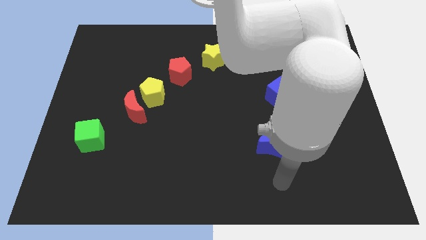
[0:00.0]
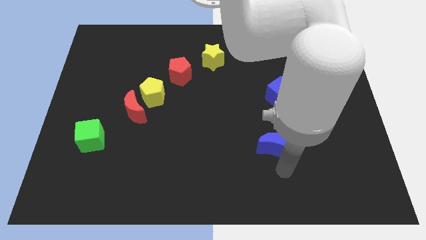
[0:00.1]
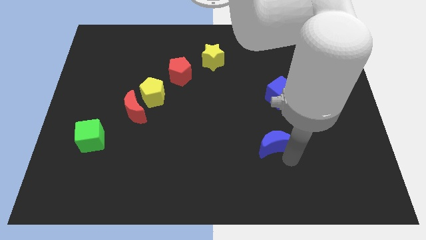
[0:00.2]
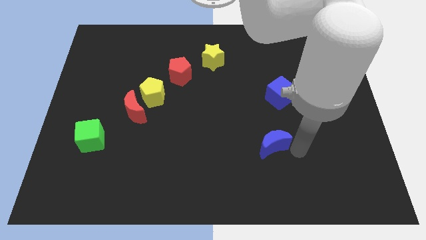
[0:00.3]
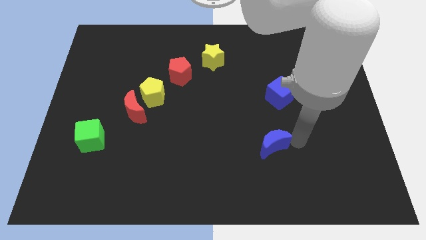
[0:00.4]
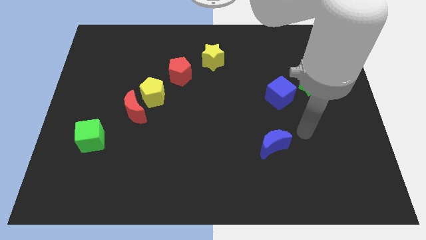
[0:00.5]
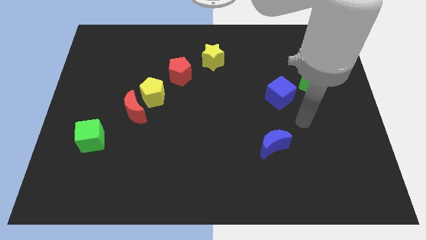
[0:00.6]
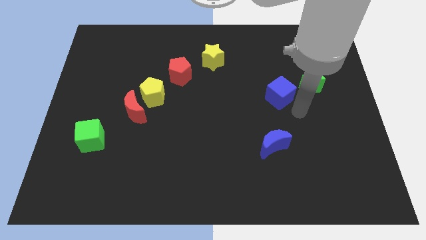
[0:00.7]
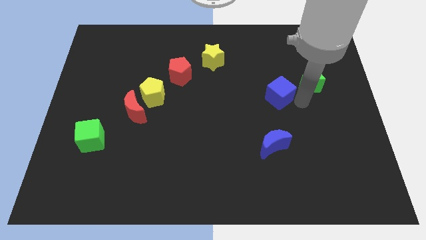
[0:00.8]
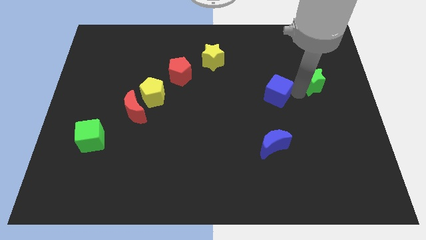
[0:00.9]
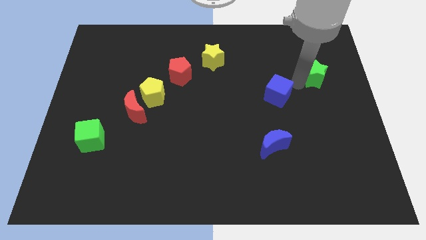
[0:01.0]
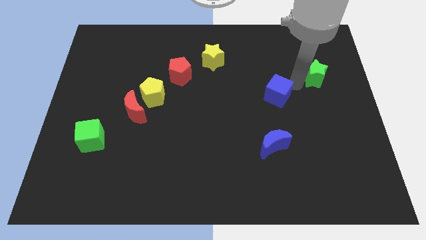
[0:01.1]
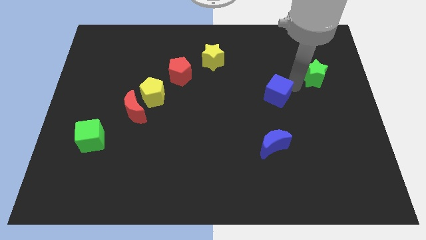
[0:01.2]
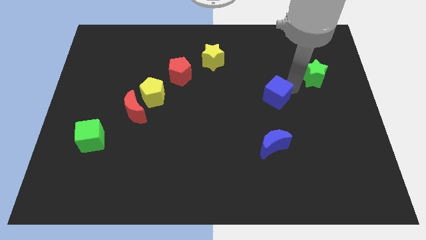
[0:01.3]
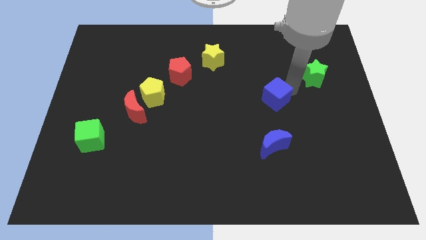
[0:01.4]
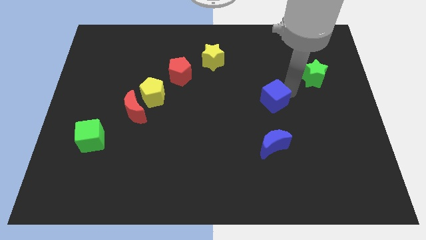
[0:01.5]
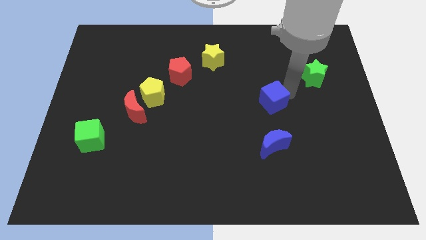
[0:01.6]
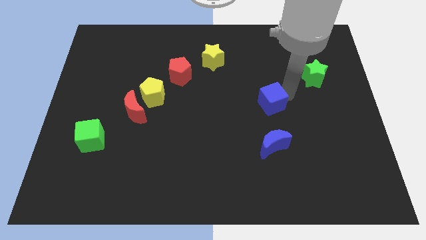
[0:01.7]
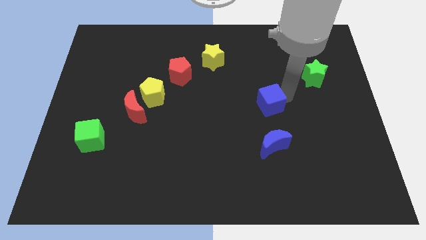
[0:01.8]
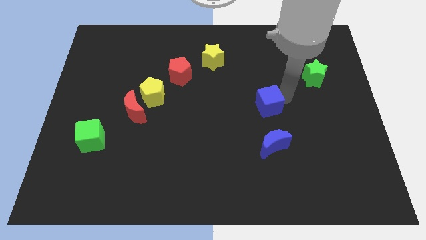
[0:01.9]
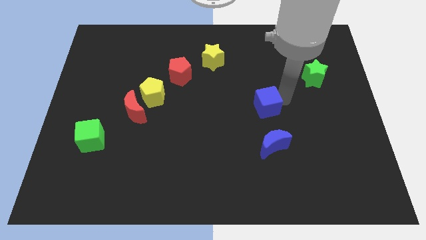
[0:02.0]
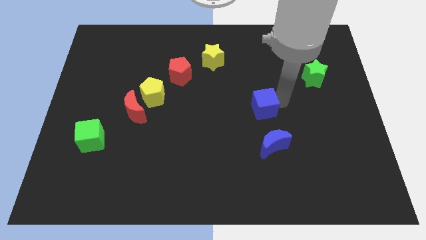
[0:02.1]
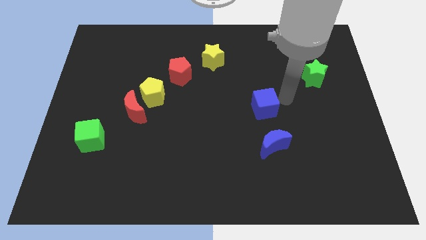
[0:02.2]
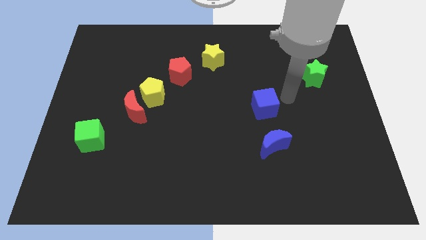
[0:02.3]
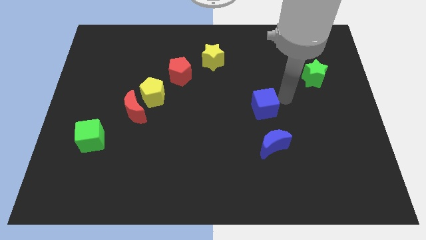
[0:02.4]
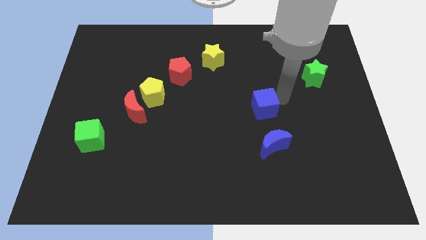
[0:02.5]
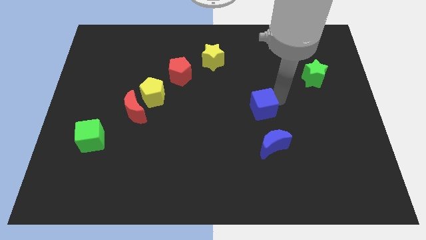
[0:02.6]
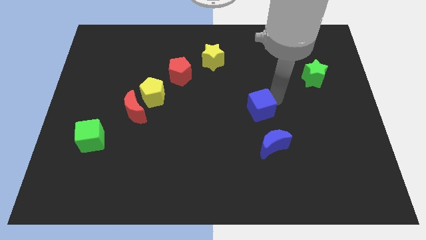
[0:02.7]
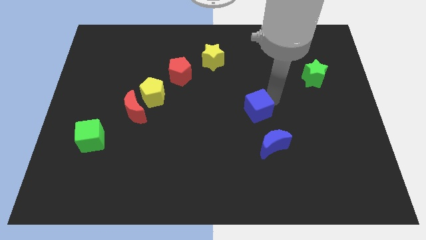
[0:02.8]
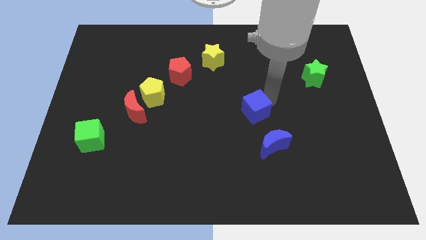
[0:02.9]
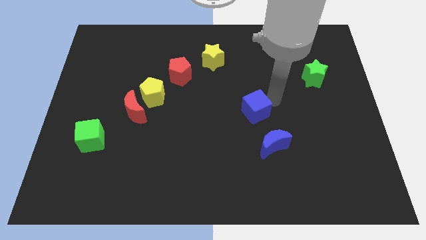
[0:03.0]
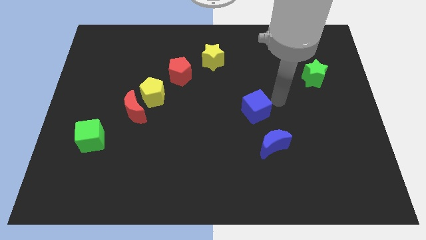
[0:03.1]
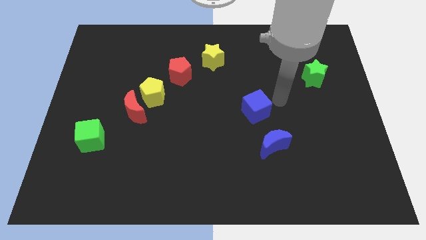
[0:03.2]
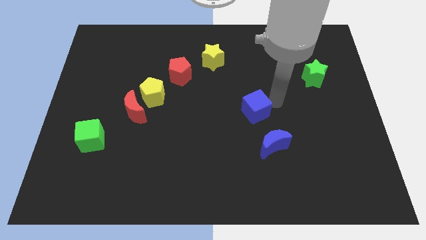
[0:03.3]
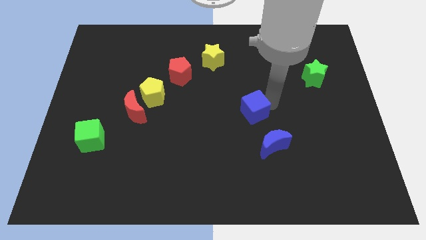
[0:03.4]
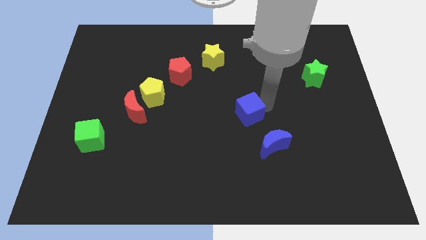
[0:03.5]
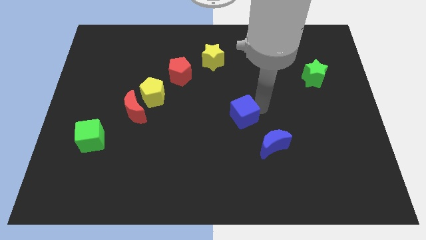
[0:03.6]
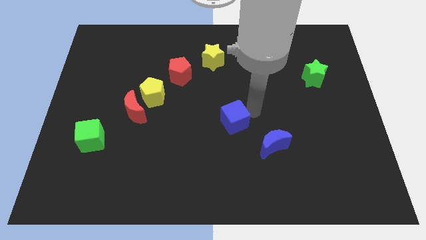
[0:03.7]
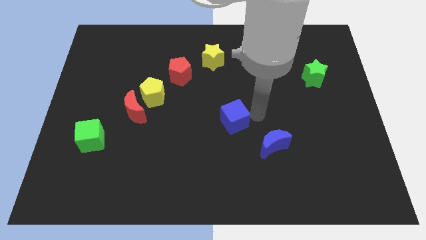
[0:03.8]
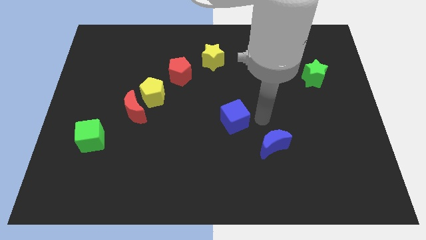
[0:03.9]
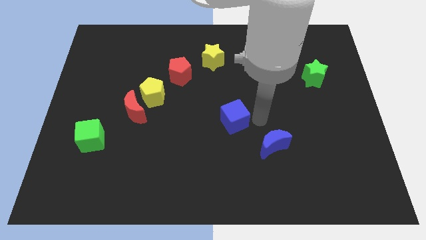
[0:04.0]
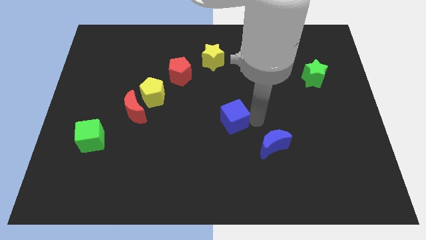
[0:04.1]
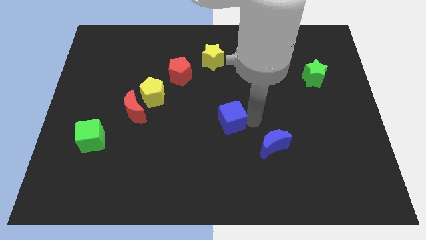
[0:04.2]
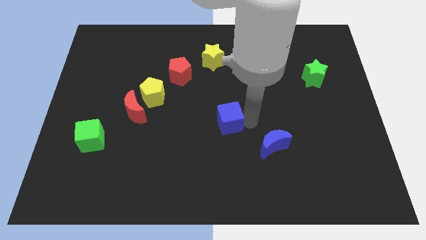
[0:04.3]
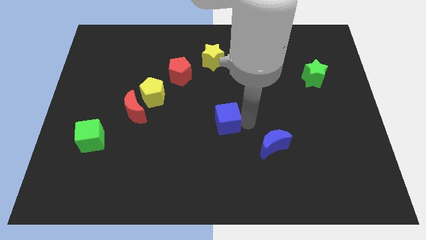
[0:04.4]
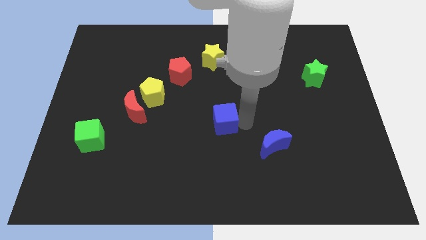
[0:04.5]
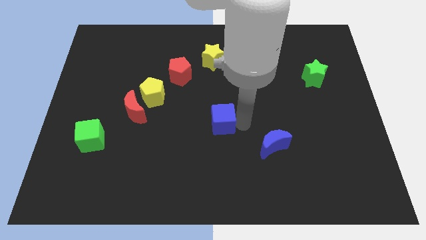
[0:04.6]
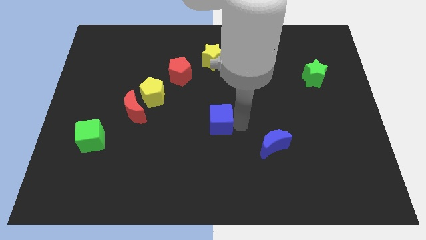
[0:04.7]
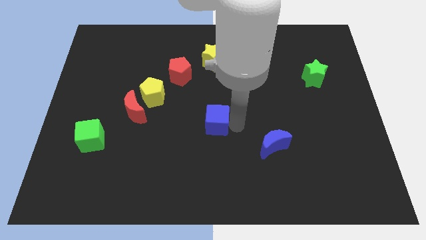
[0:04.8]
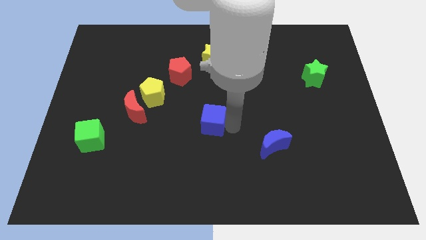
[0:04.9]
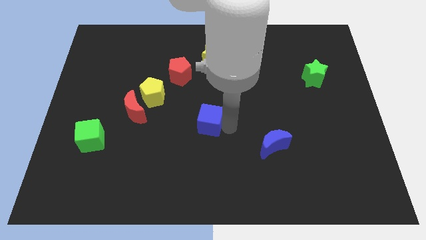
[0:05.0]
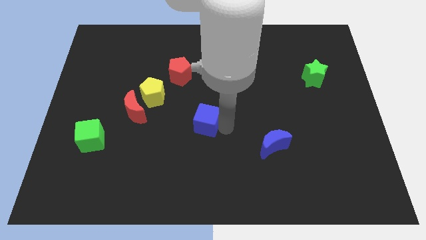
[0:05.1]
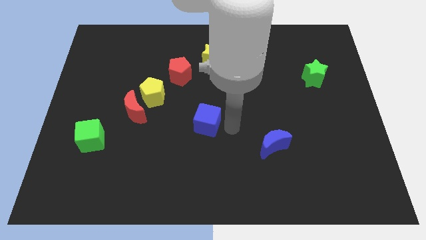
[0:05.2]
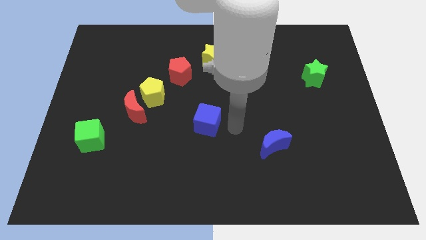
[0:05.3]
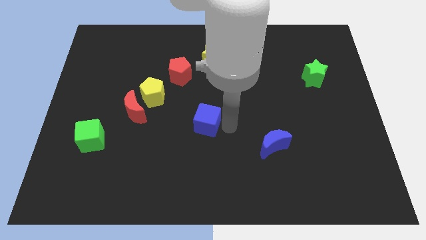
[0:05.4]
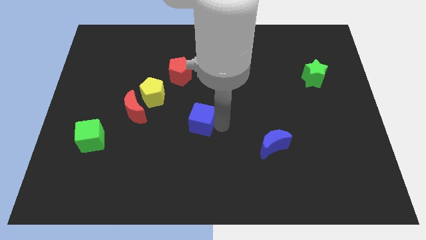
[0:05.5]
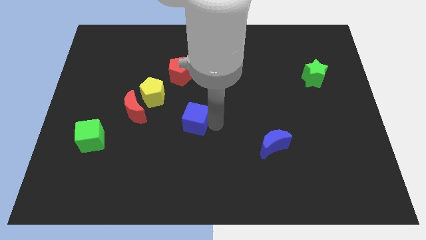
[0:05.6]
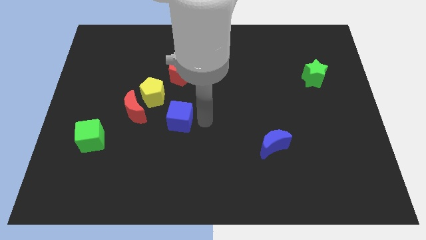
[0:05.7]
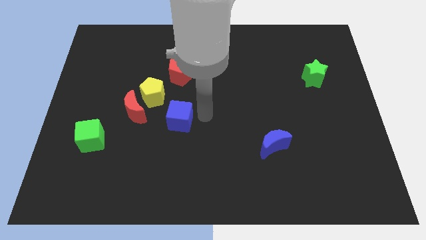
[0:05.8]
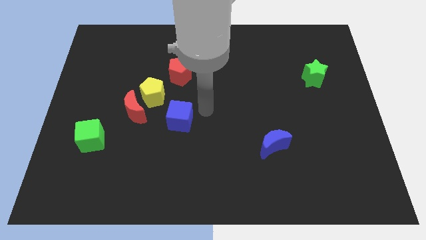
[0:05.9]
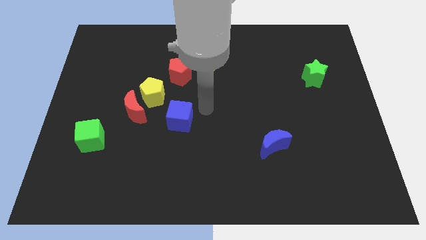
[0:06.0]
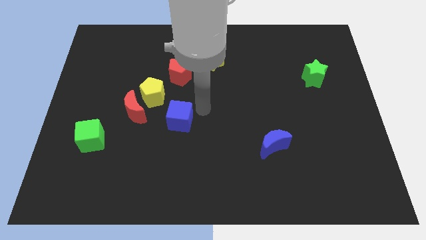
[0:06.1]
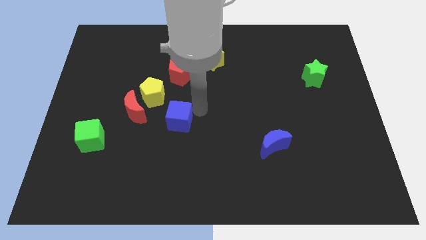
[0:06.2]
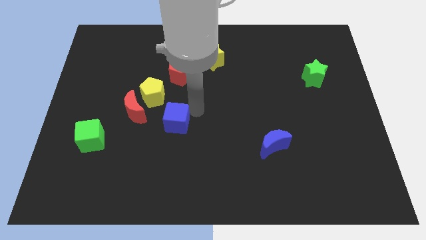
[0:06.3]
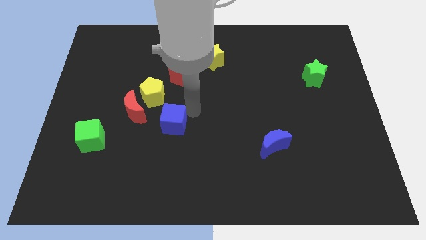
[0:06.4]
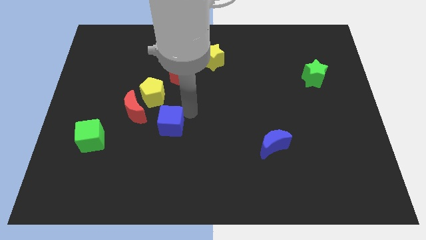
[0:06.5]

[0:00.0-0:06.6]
slide the blue cube to the bottom of the yellow pentagon
